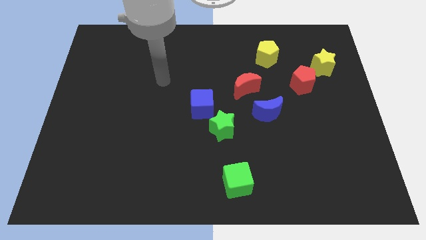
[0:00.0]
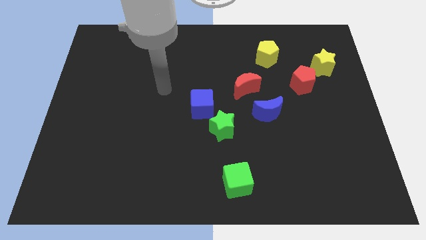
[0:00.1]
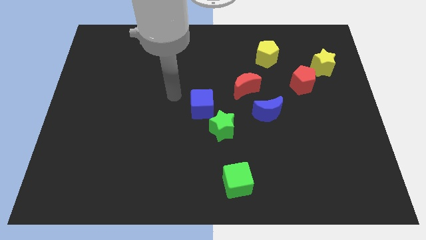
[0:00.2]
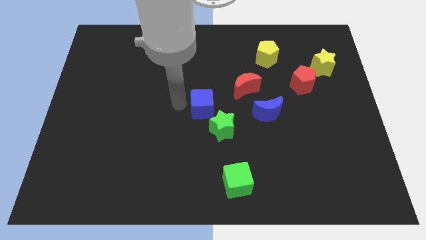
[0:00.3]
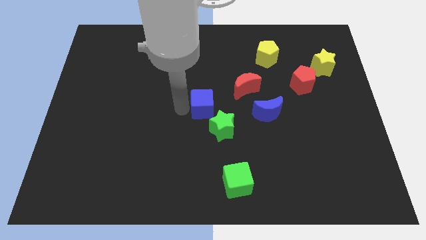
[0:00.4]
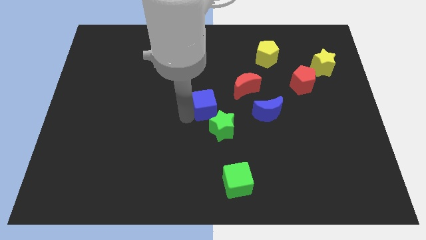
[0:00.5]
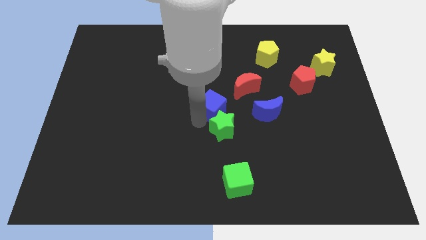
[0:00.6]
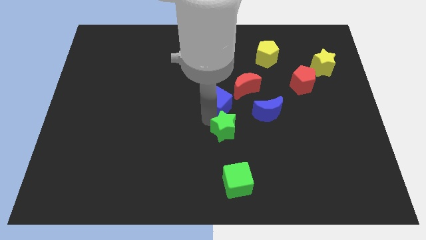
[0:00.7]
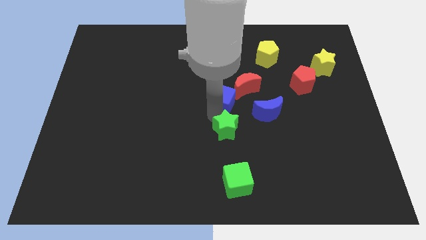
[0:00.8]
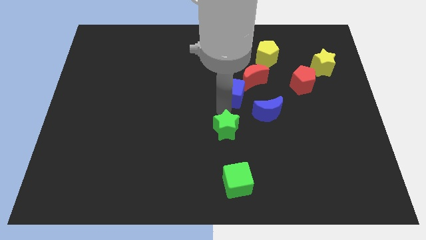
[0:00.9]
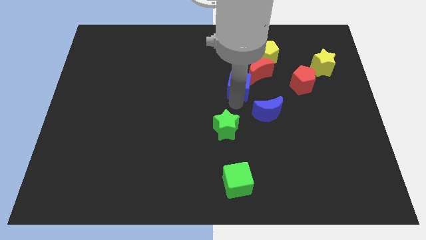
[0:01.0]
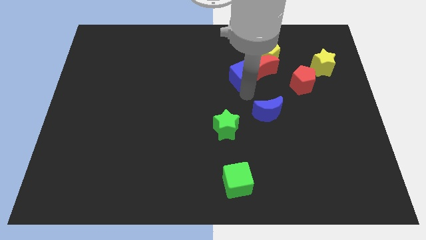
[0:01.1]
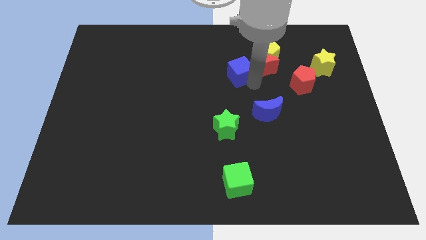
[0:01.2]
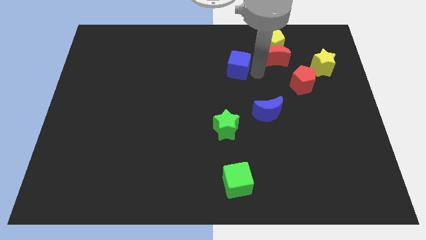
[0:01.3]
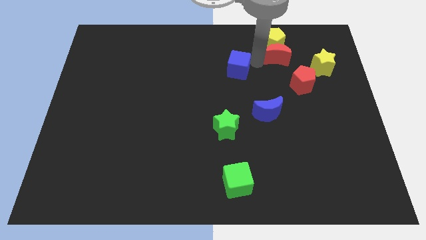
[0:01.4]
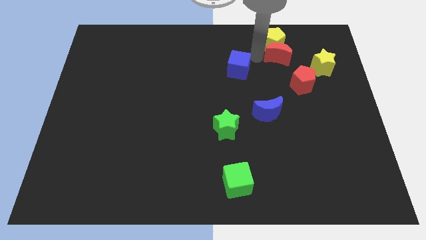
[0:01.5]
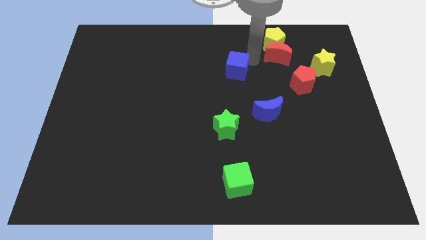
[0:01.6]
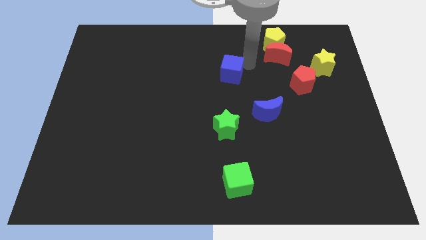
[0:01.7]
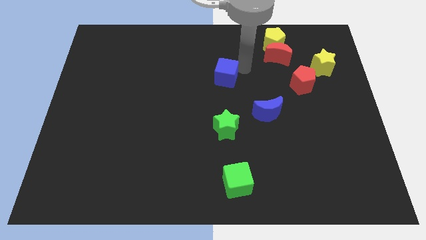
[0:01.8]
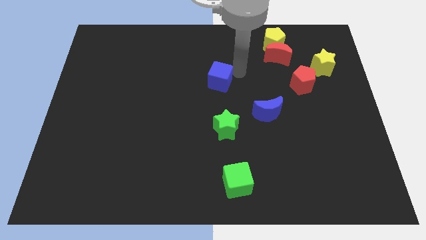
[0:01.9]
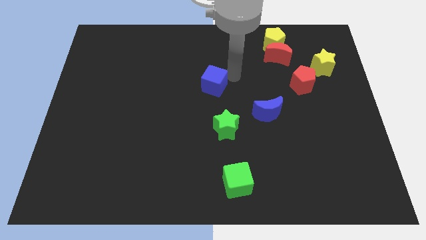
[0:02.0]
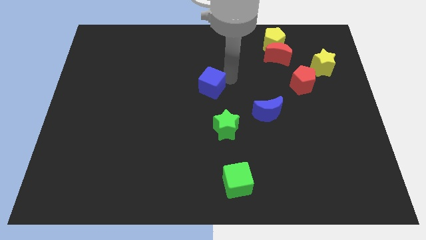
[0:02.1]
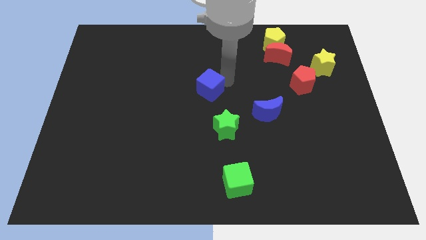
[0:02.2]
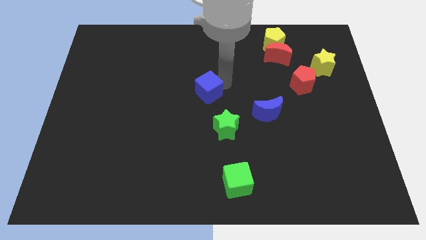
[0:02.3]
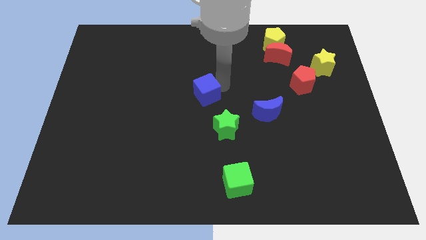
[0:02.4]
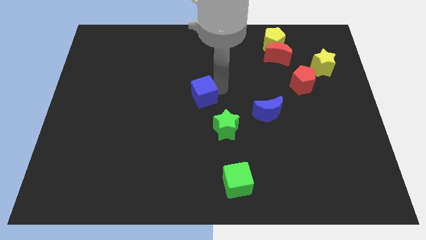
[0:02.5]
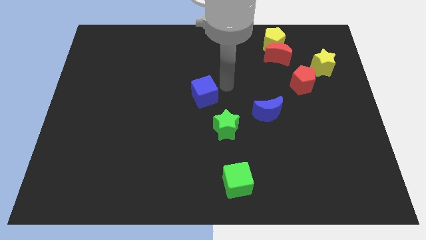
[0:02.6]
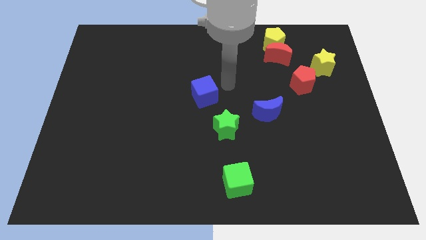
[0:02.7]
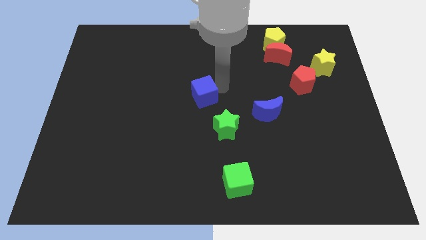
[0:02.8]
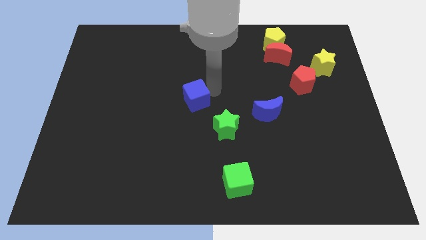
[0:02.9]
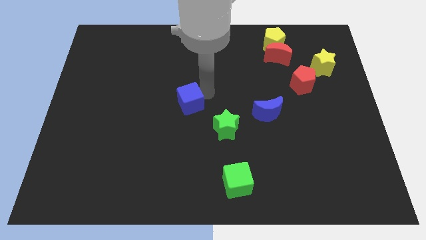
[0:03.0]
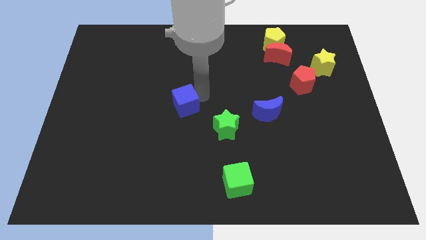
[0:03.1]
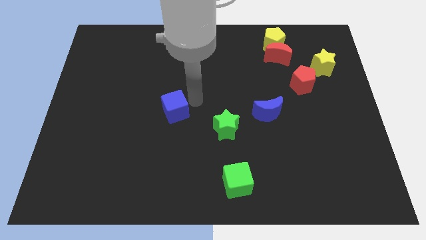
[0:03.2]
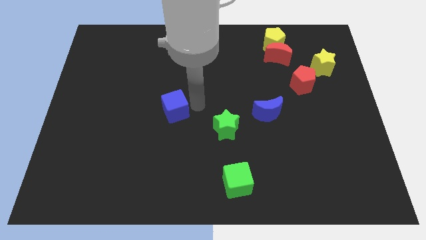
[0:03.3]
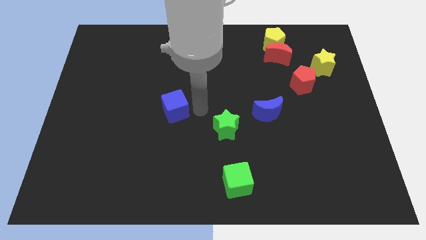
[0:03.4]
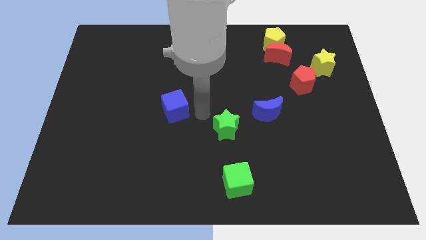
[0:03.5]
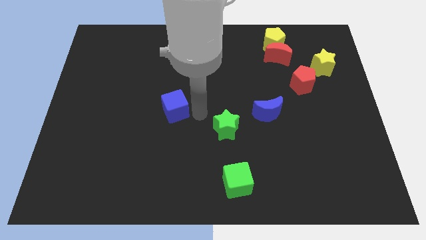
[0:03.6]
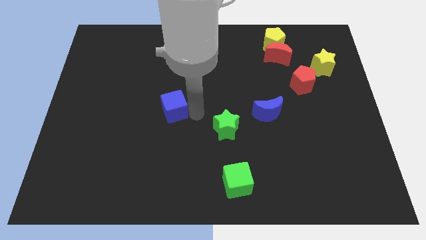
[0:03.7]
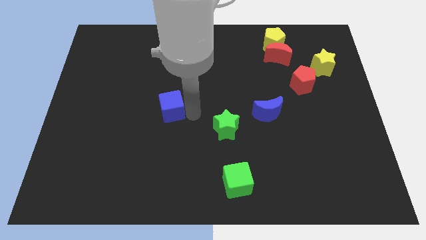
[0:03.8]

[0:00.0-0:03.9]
slightly slide the blue cube to the left

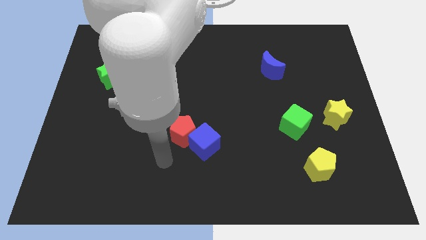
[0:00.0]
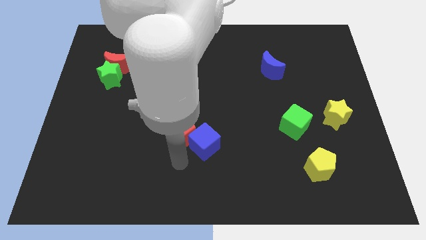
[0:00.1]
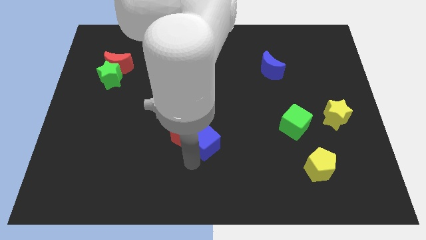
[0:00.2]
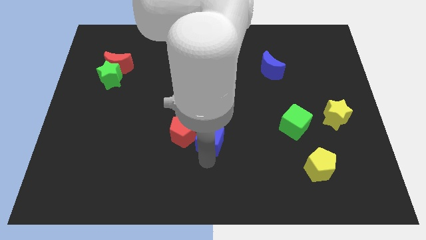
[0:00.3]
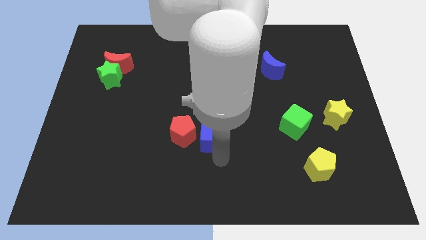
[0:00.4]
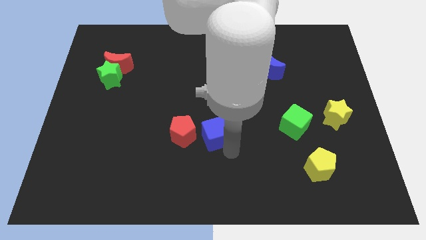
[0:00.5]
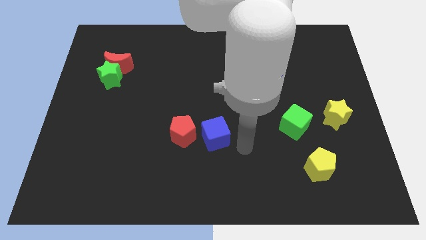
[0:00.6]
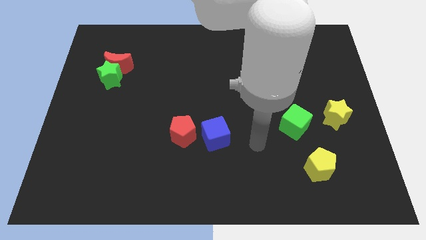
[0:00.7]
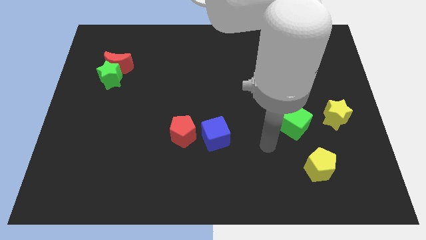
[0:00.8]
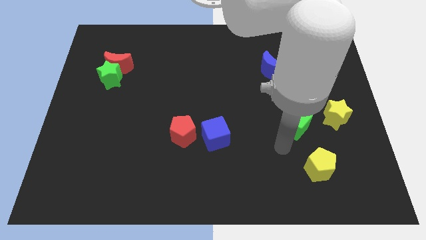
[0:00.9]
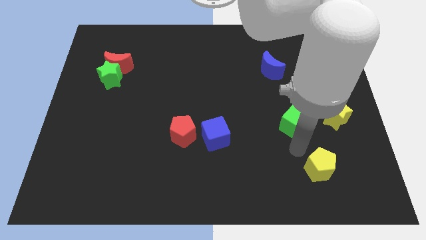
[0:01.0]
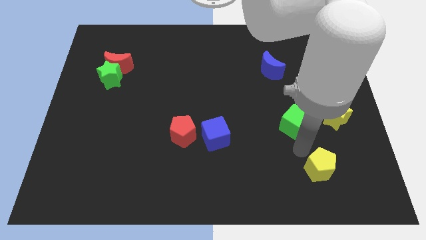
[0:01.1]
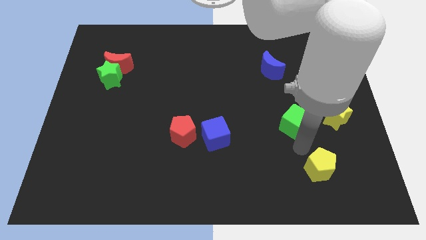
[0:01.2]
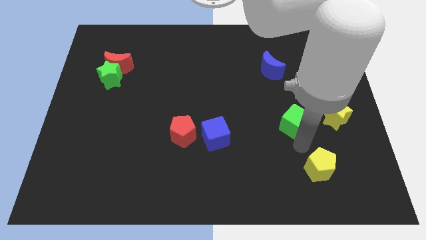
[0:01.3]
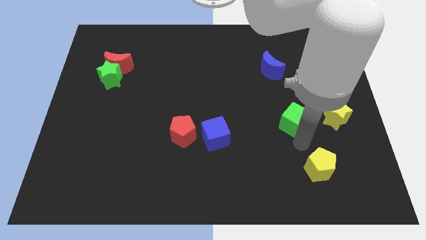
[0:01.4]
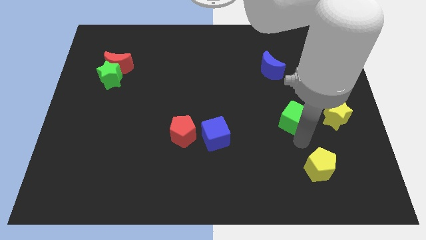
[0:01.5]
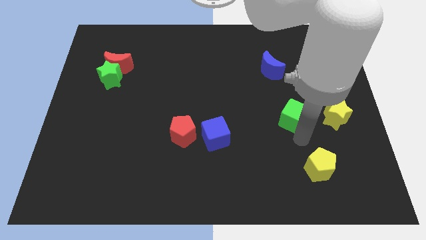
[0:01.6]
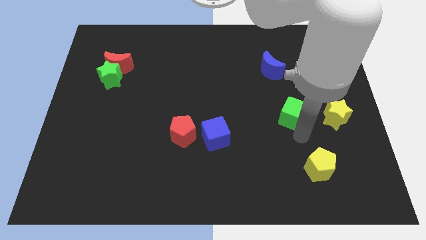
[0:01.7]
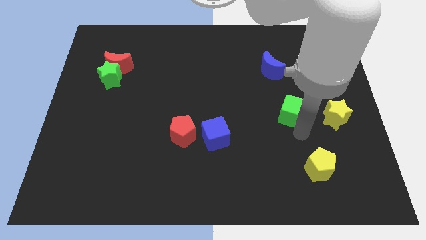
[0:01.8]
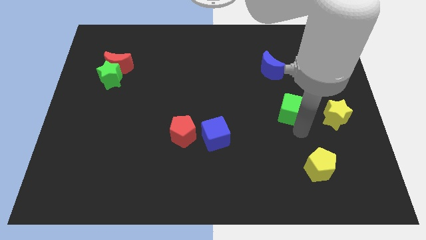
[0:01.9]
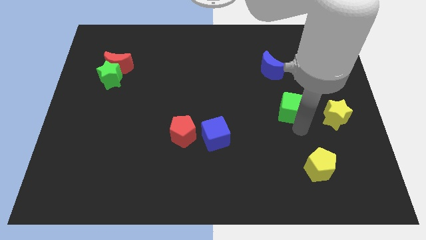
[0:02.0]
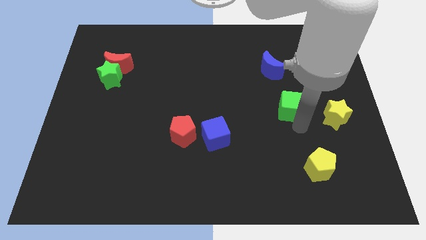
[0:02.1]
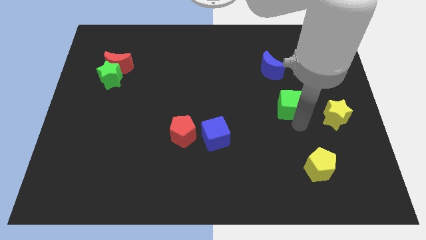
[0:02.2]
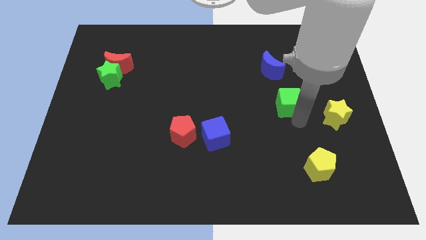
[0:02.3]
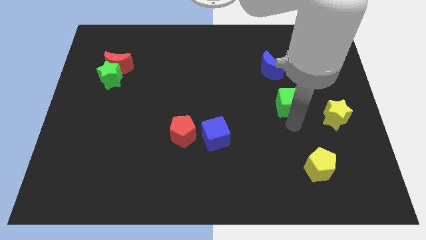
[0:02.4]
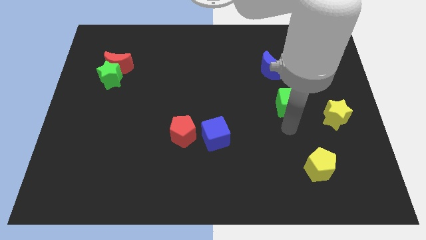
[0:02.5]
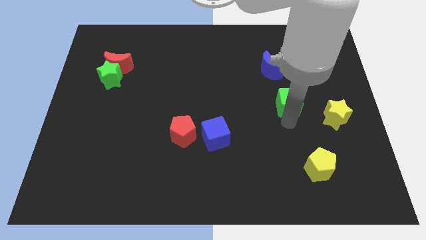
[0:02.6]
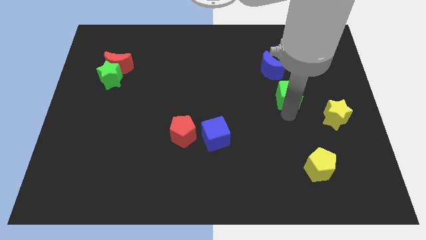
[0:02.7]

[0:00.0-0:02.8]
slightly move the green cube up

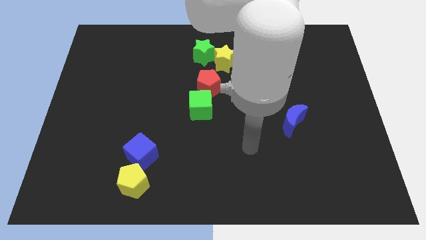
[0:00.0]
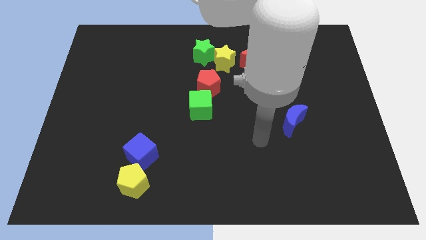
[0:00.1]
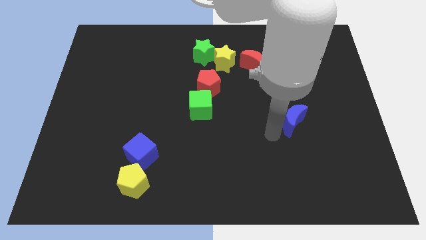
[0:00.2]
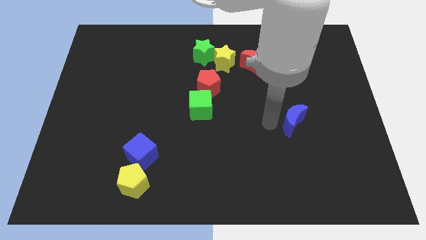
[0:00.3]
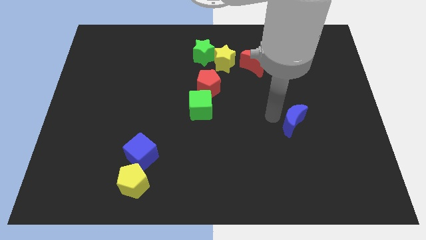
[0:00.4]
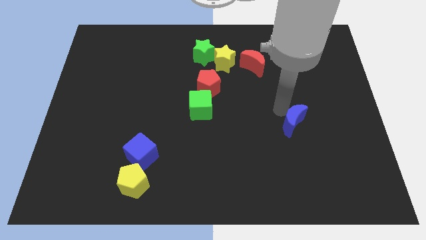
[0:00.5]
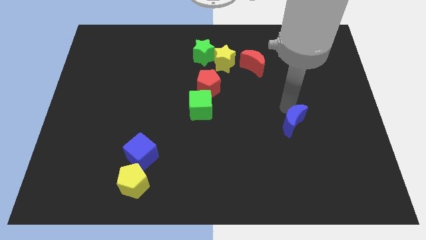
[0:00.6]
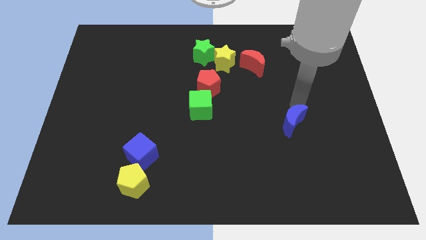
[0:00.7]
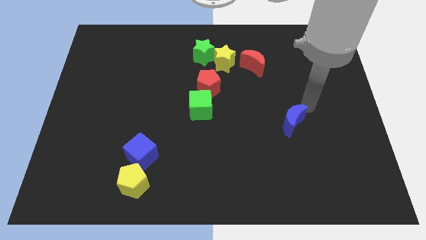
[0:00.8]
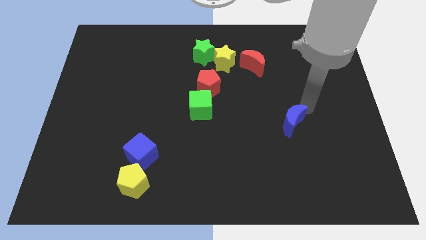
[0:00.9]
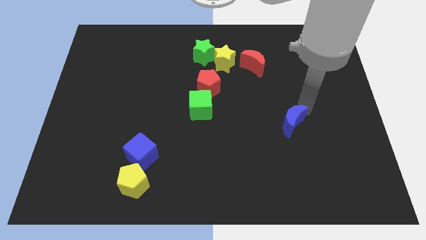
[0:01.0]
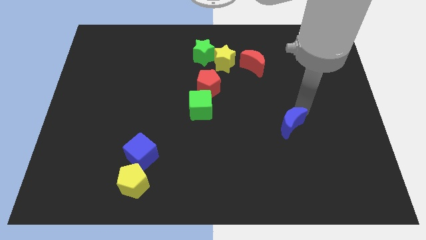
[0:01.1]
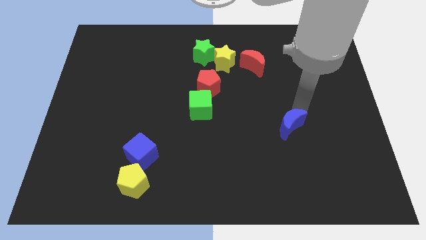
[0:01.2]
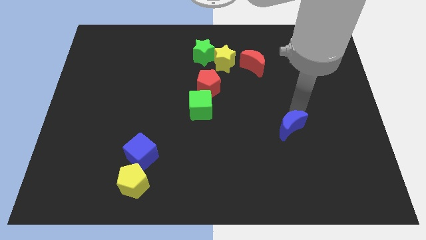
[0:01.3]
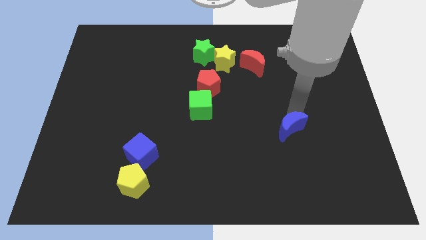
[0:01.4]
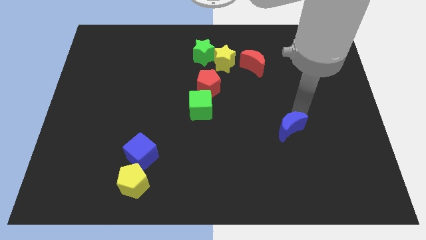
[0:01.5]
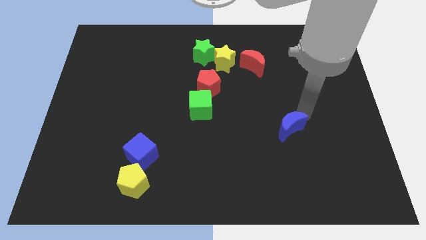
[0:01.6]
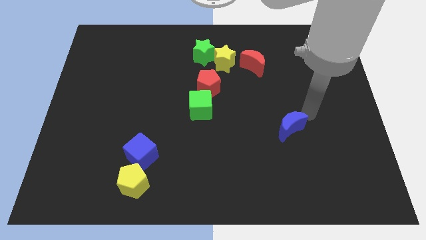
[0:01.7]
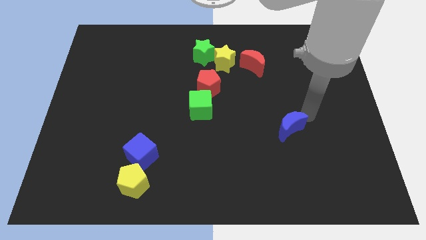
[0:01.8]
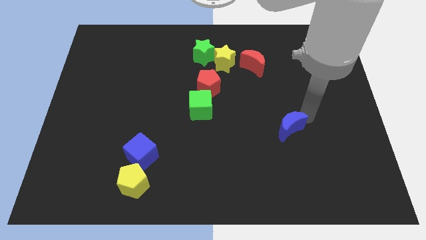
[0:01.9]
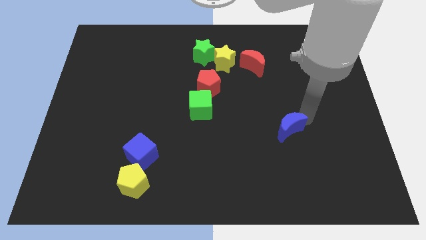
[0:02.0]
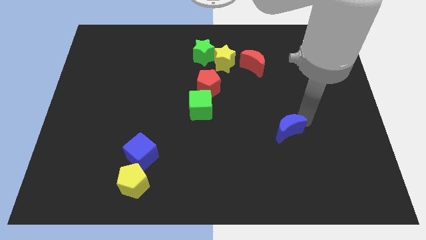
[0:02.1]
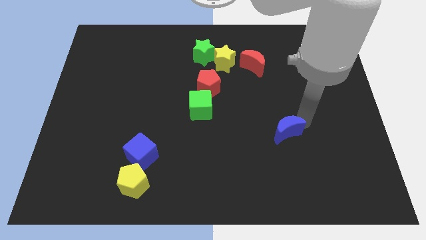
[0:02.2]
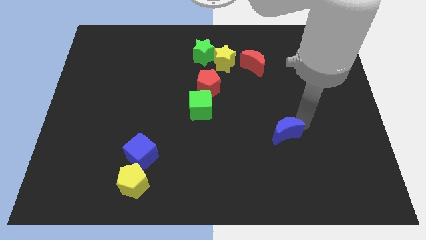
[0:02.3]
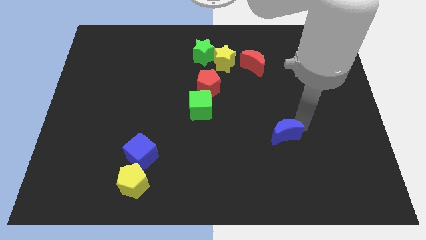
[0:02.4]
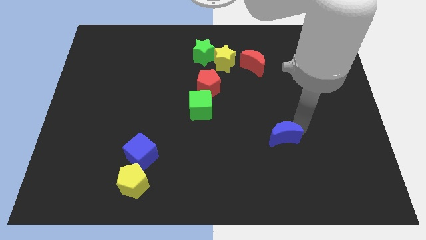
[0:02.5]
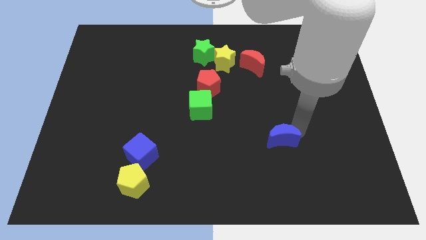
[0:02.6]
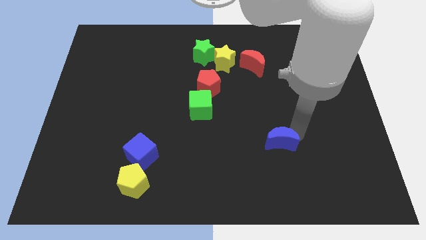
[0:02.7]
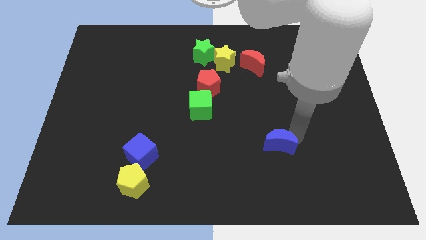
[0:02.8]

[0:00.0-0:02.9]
slightly move the blue moon down and then to the left
